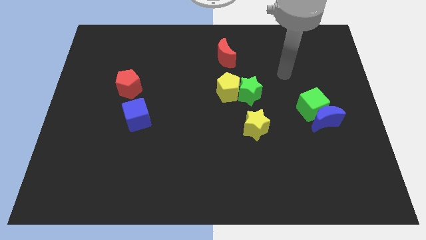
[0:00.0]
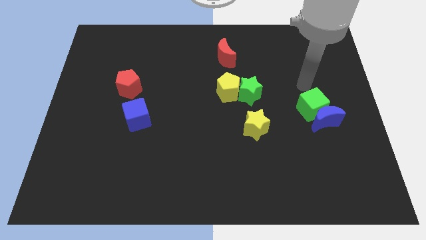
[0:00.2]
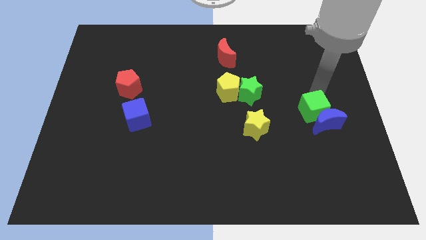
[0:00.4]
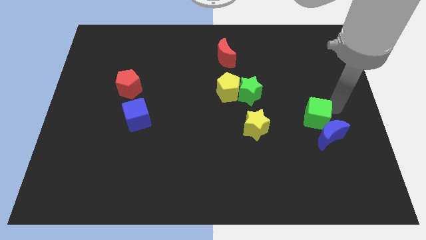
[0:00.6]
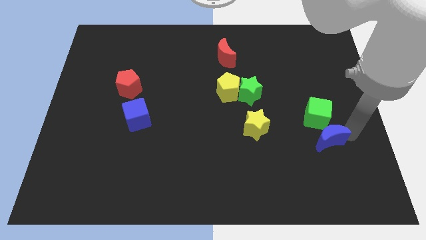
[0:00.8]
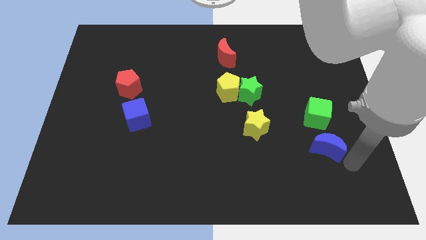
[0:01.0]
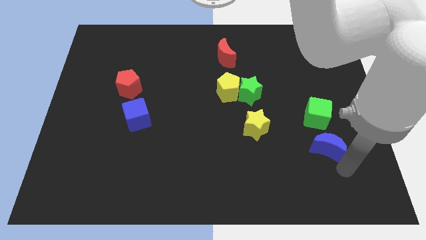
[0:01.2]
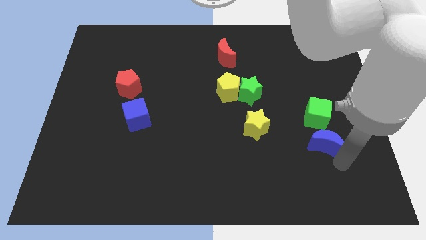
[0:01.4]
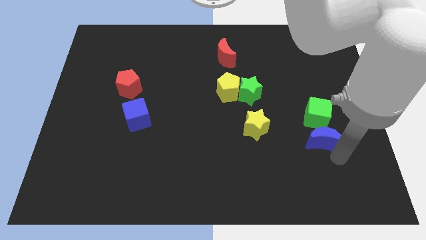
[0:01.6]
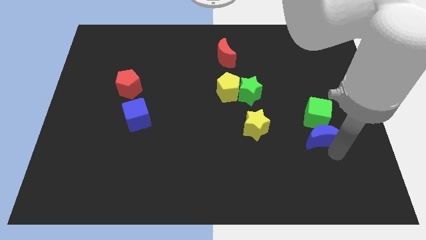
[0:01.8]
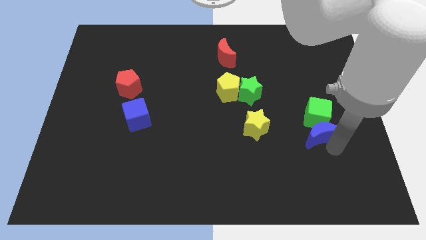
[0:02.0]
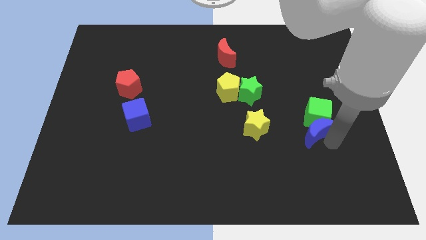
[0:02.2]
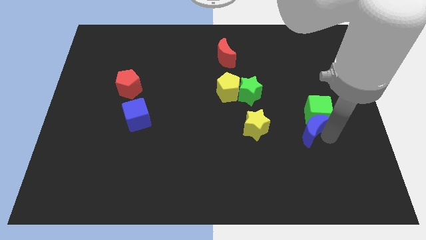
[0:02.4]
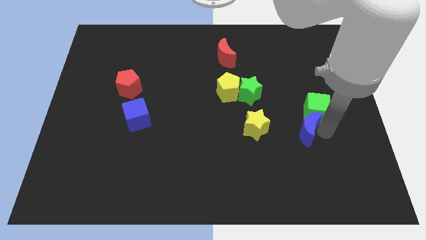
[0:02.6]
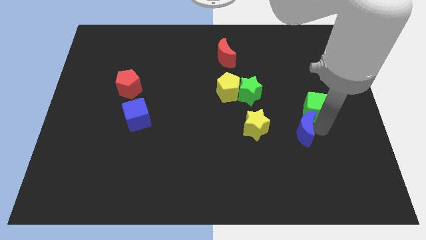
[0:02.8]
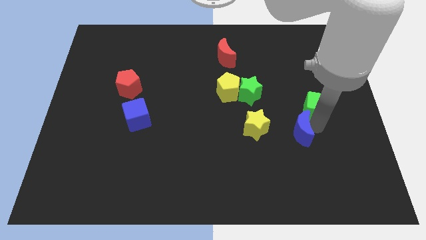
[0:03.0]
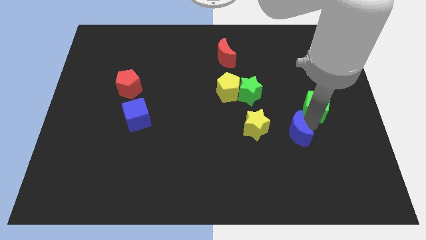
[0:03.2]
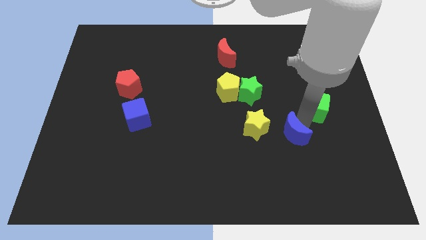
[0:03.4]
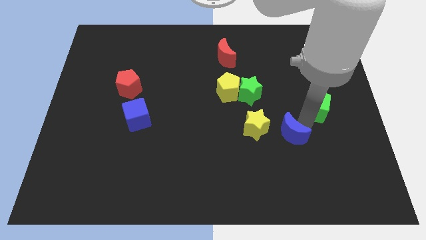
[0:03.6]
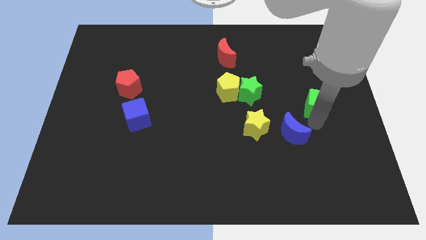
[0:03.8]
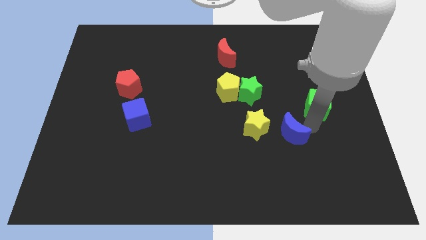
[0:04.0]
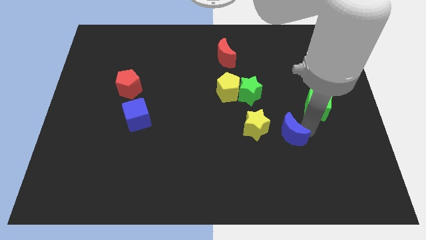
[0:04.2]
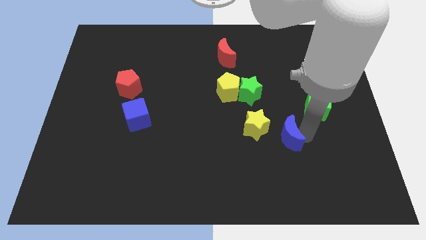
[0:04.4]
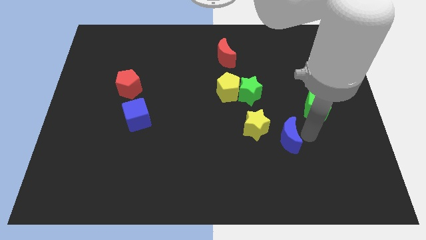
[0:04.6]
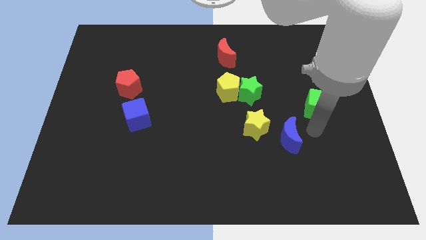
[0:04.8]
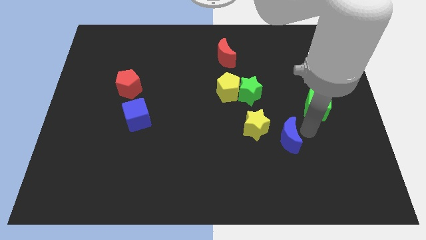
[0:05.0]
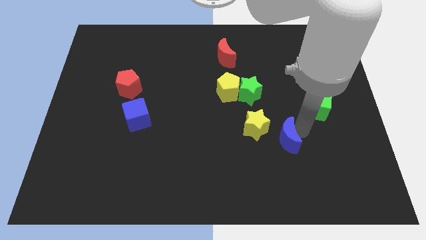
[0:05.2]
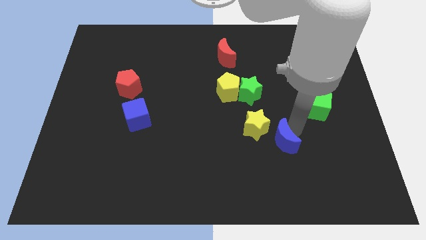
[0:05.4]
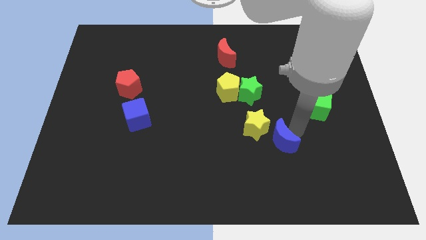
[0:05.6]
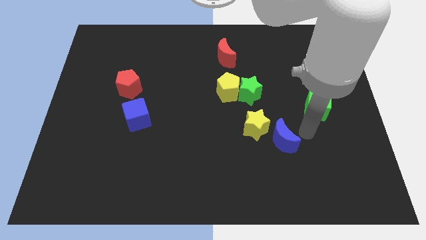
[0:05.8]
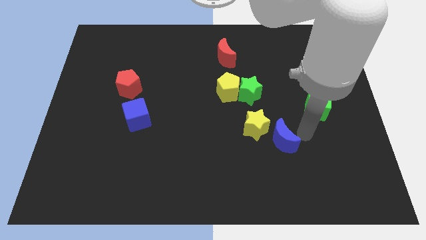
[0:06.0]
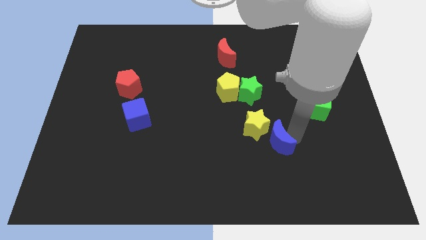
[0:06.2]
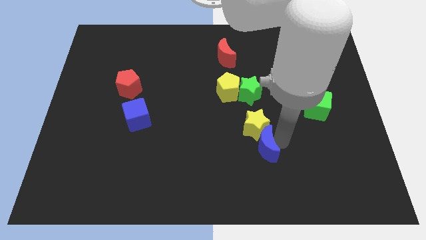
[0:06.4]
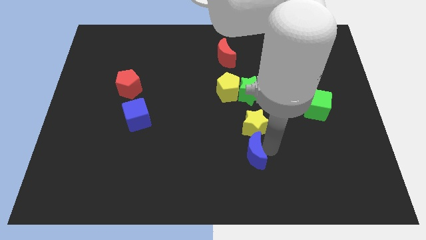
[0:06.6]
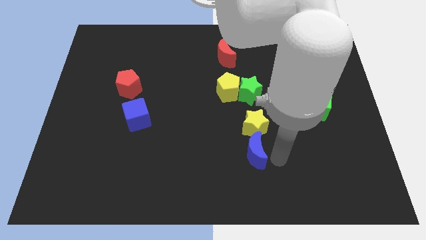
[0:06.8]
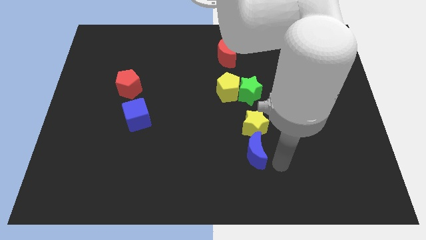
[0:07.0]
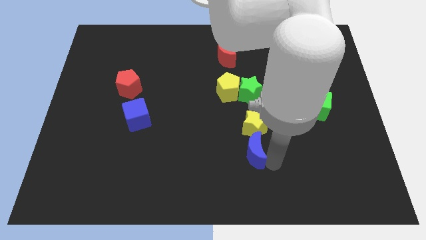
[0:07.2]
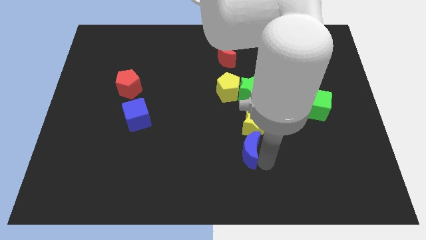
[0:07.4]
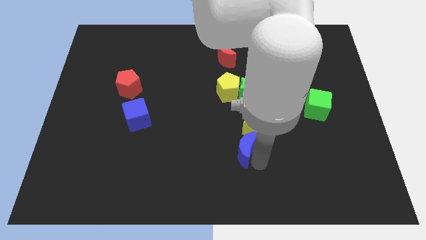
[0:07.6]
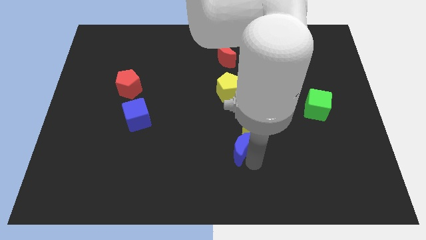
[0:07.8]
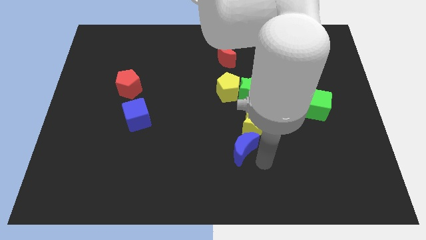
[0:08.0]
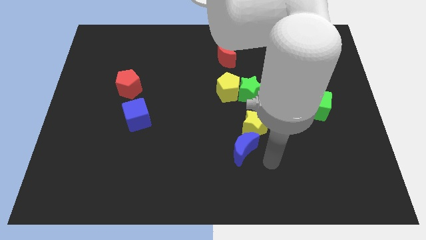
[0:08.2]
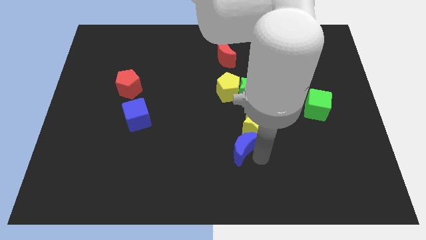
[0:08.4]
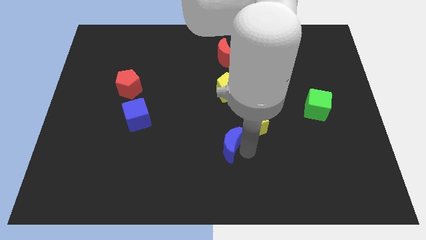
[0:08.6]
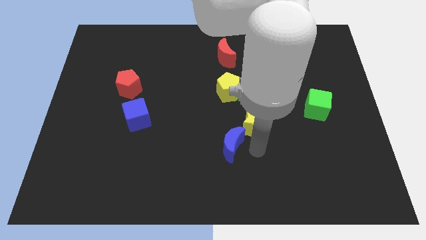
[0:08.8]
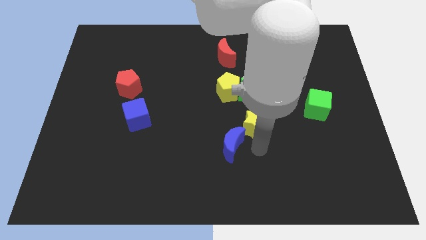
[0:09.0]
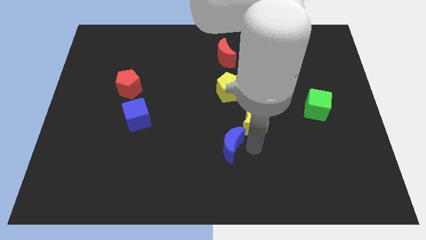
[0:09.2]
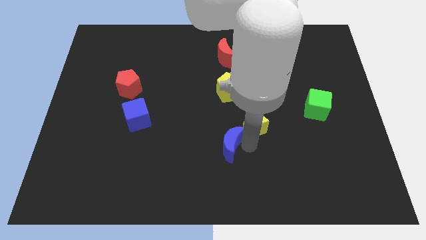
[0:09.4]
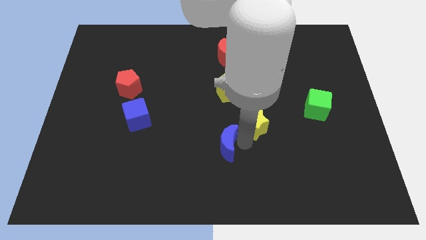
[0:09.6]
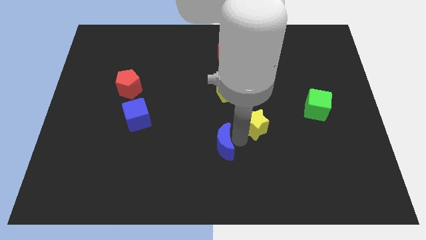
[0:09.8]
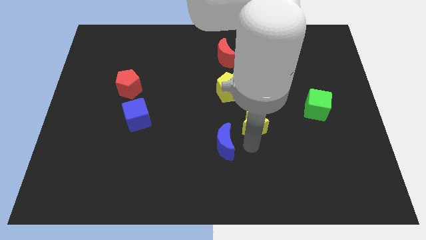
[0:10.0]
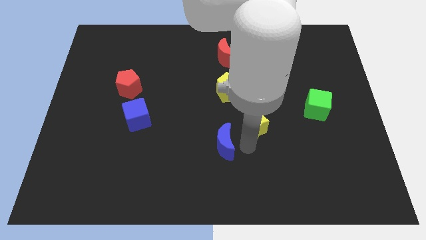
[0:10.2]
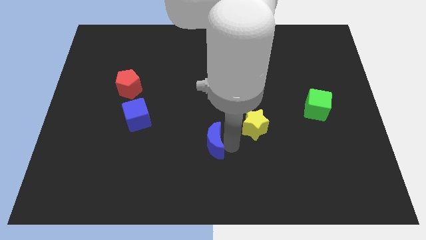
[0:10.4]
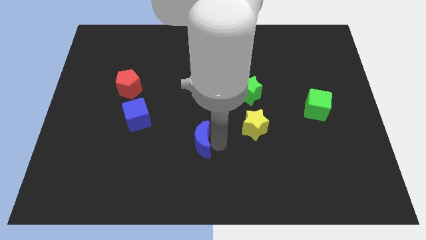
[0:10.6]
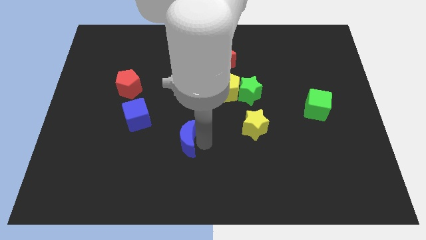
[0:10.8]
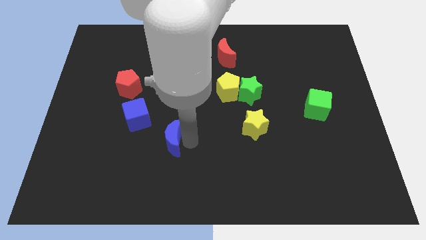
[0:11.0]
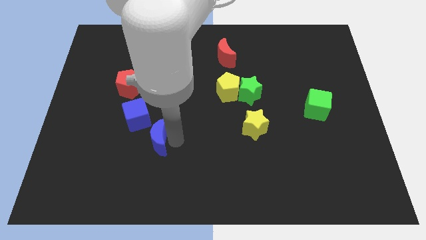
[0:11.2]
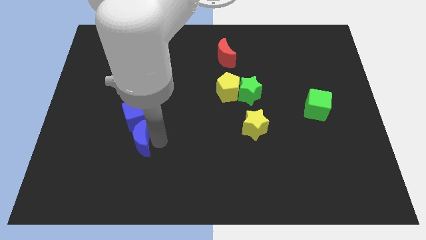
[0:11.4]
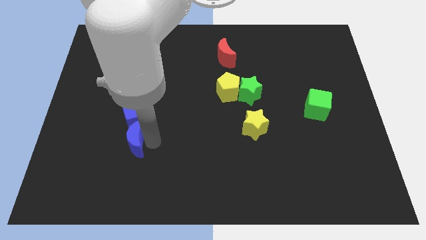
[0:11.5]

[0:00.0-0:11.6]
put the blue moon diagonally down and to the left of the blue cube

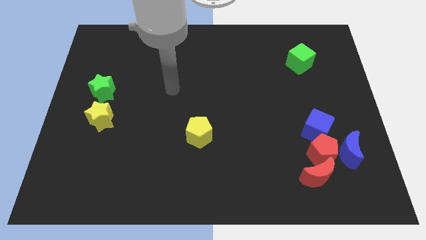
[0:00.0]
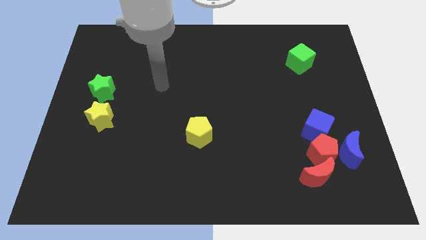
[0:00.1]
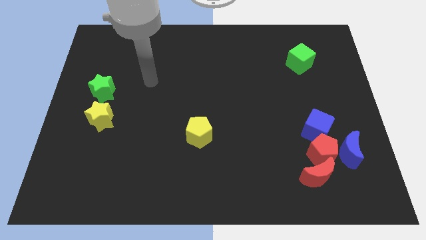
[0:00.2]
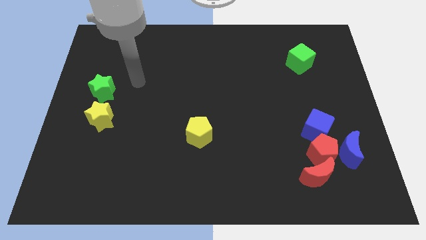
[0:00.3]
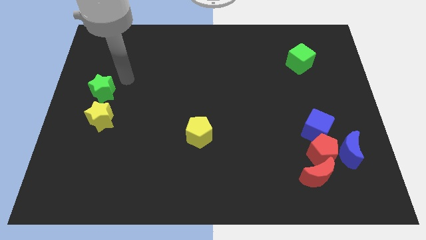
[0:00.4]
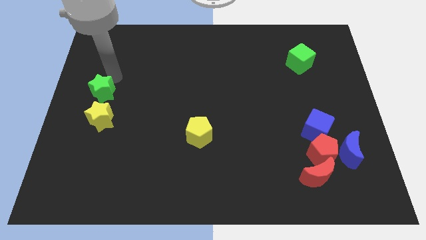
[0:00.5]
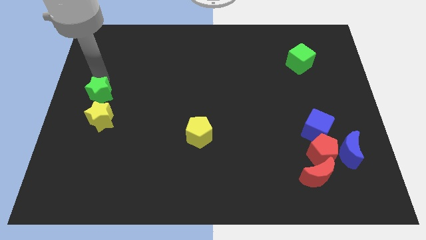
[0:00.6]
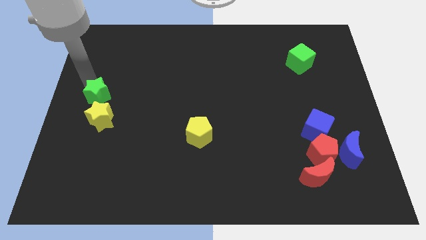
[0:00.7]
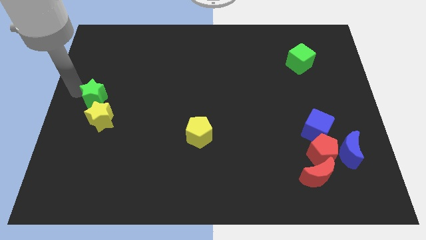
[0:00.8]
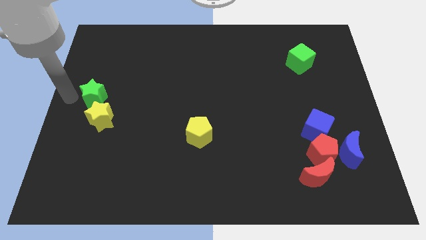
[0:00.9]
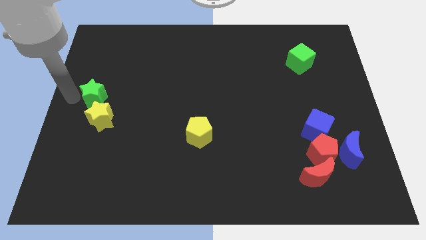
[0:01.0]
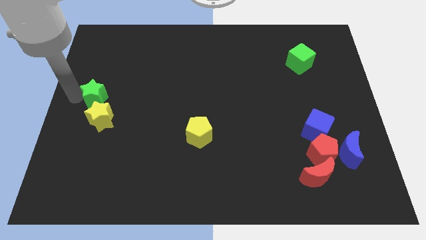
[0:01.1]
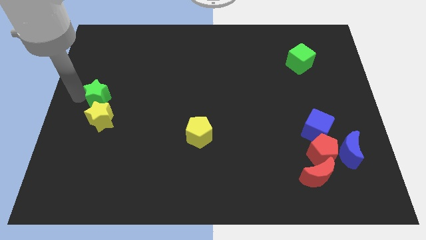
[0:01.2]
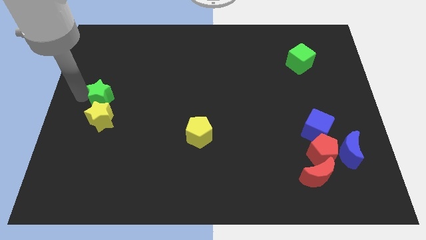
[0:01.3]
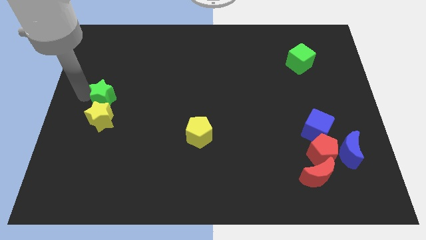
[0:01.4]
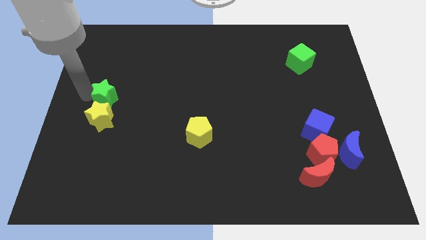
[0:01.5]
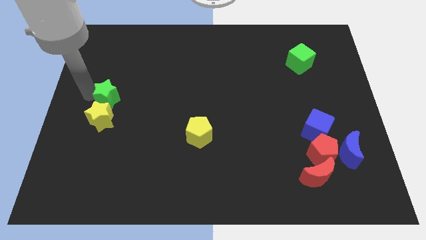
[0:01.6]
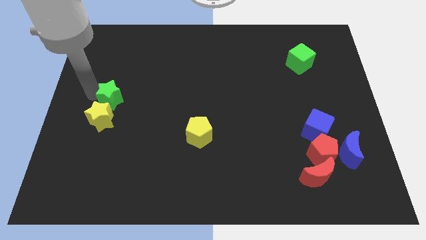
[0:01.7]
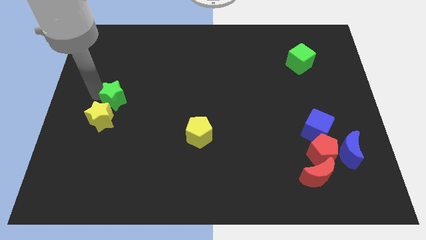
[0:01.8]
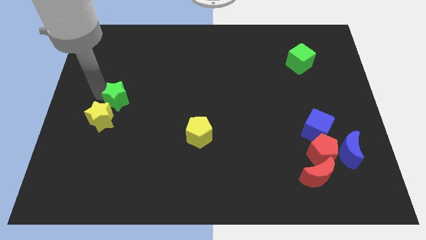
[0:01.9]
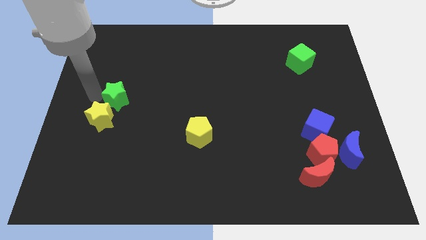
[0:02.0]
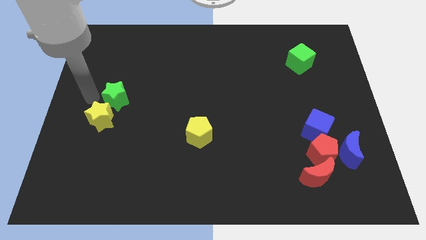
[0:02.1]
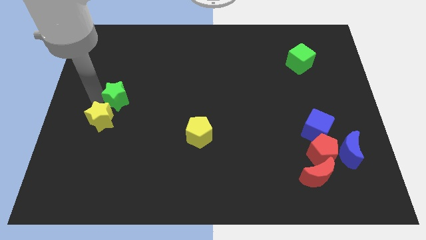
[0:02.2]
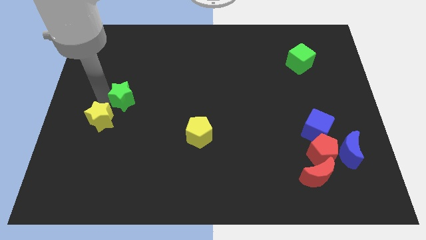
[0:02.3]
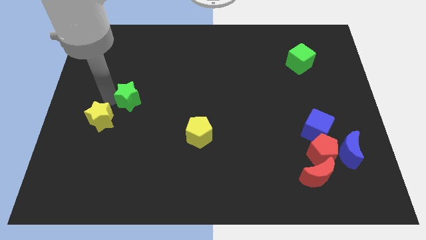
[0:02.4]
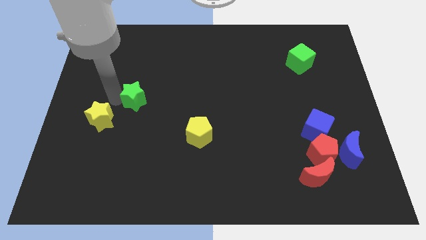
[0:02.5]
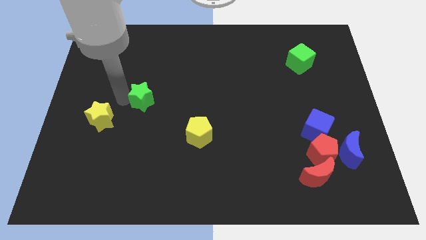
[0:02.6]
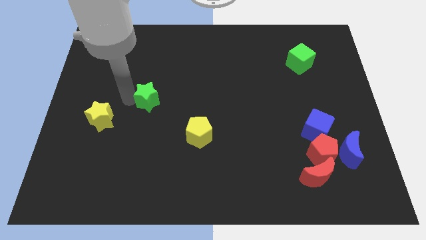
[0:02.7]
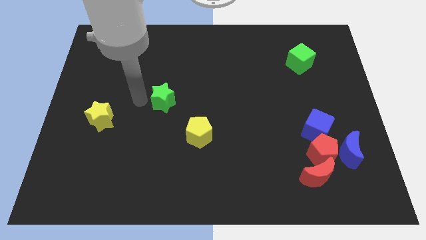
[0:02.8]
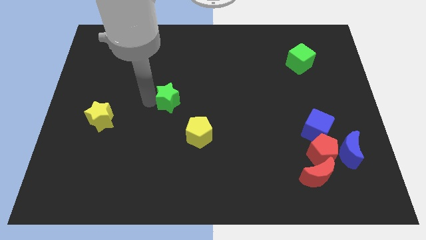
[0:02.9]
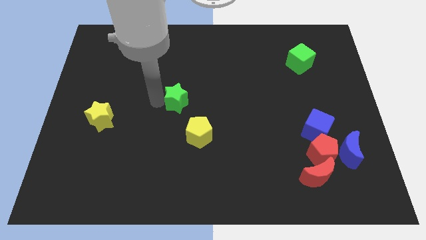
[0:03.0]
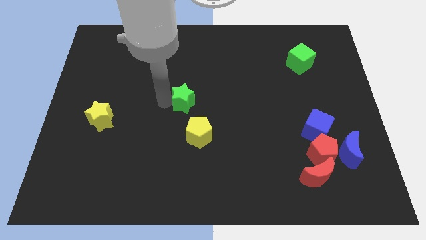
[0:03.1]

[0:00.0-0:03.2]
move the green star to the top of the yellow pentagon
